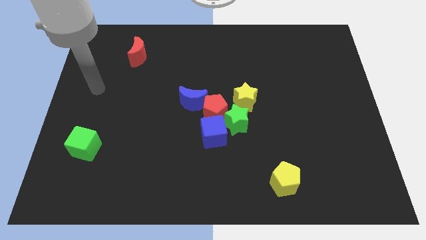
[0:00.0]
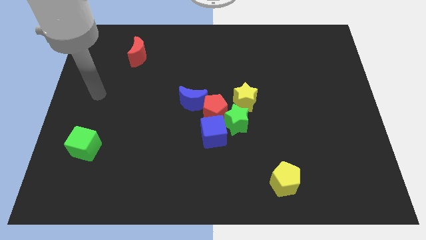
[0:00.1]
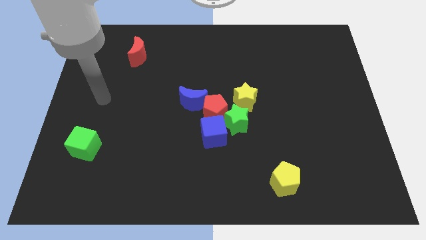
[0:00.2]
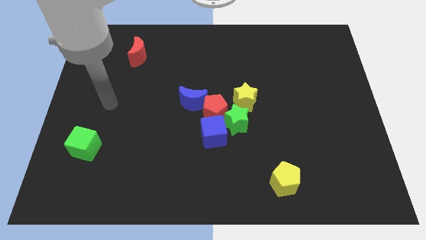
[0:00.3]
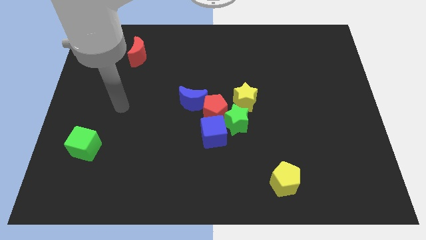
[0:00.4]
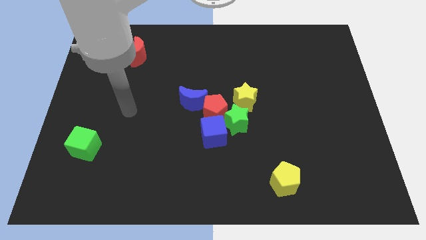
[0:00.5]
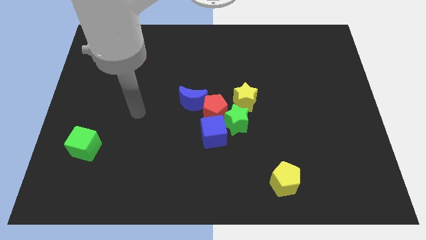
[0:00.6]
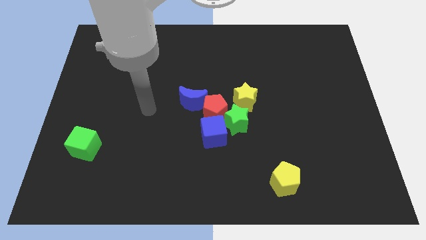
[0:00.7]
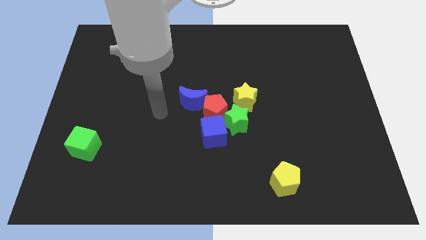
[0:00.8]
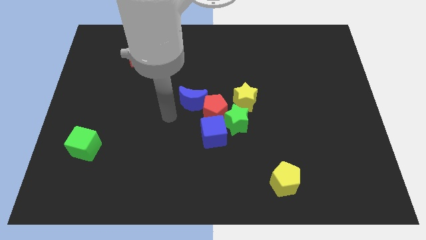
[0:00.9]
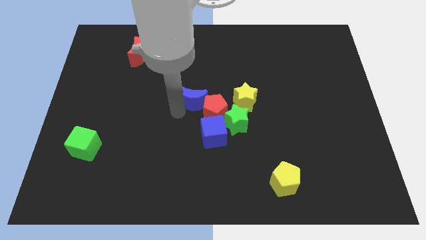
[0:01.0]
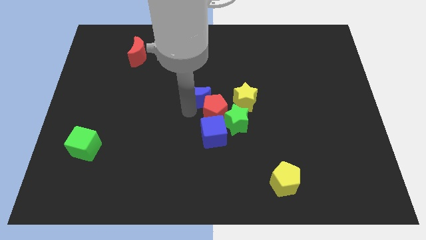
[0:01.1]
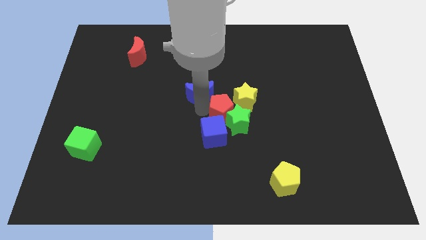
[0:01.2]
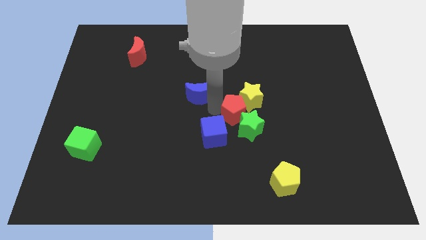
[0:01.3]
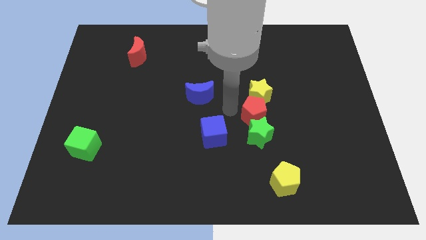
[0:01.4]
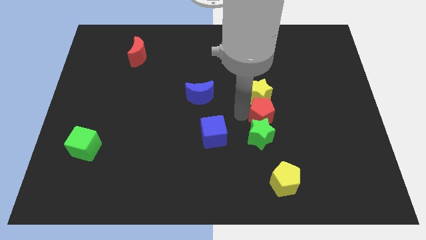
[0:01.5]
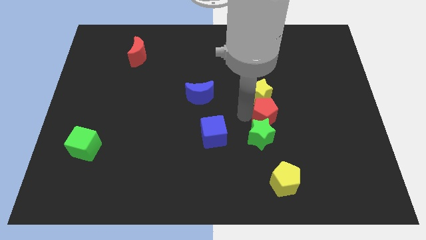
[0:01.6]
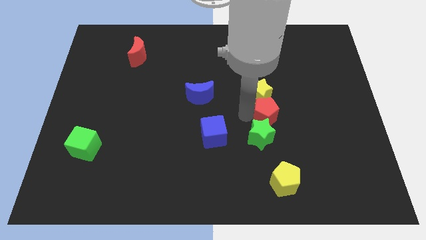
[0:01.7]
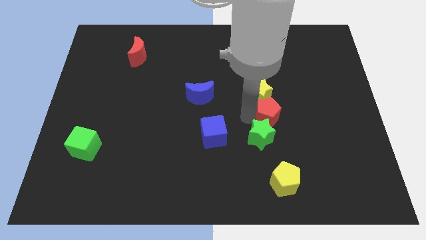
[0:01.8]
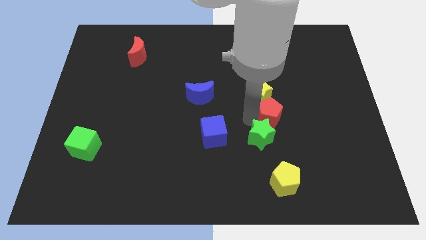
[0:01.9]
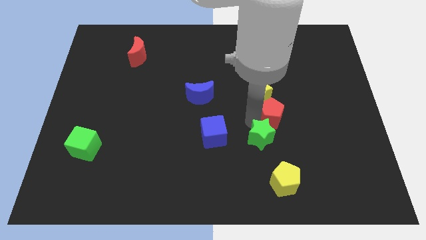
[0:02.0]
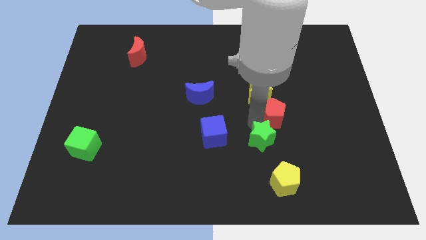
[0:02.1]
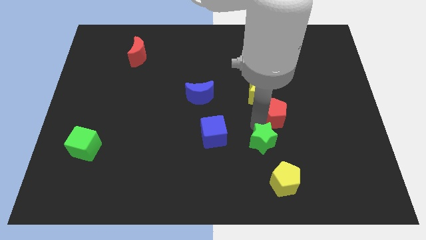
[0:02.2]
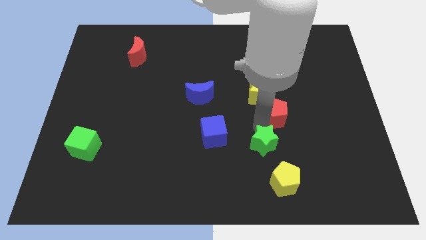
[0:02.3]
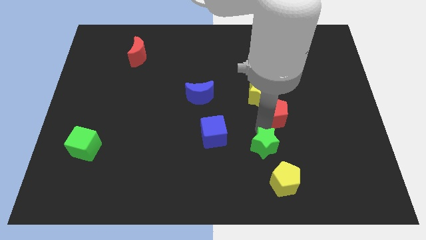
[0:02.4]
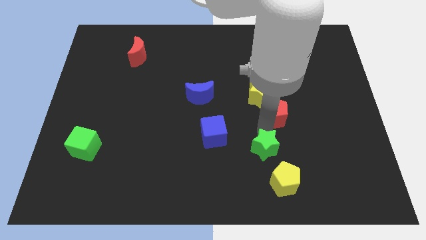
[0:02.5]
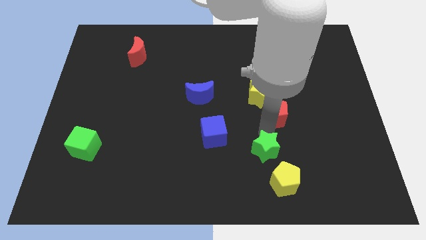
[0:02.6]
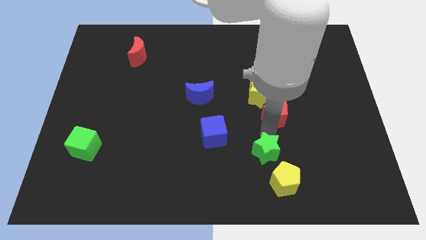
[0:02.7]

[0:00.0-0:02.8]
separate the green star from the red pentagon, blue cube, and yellow star

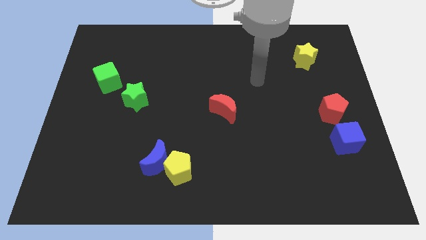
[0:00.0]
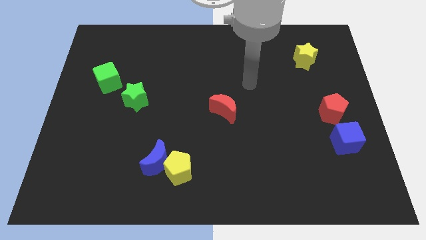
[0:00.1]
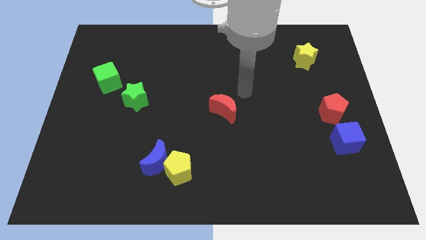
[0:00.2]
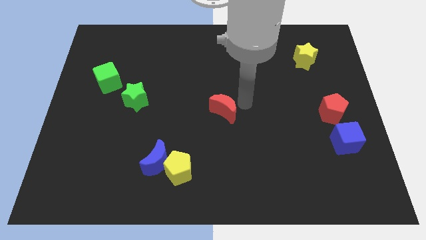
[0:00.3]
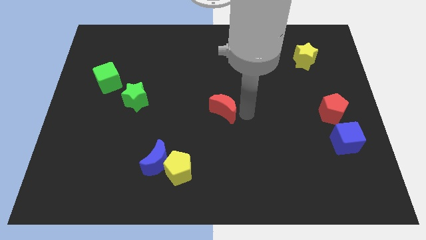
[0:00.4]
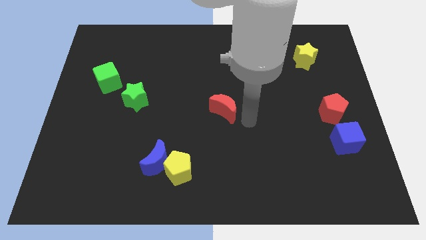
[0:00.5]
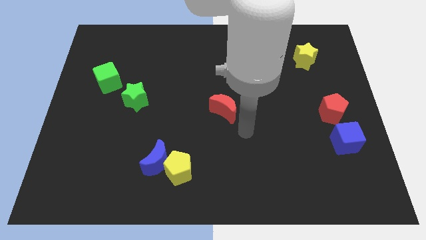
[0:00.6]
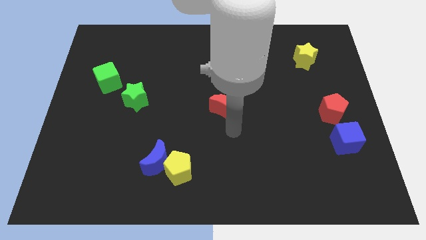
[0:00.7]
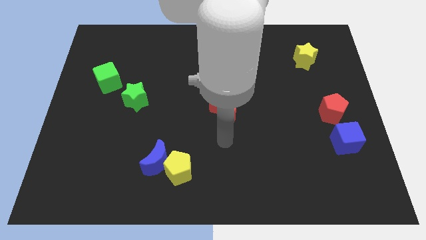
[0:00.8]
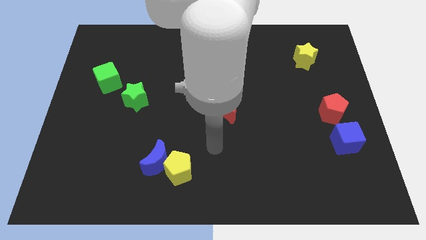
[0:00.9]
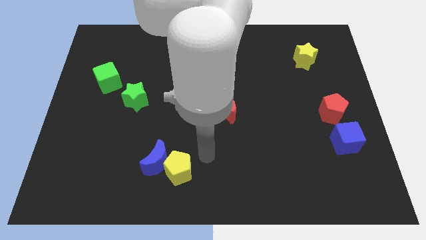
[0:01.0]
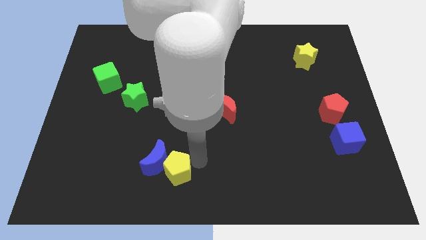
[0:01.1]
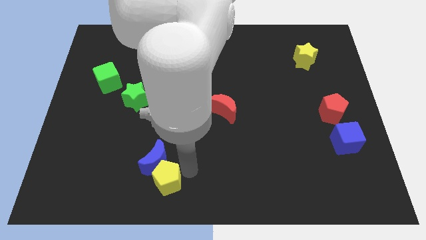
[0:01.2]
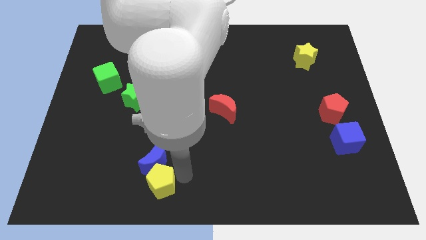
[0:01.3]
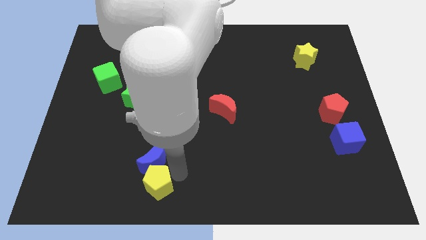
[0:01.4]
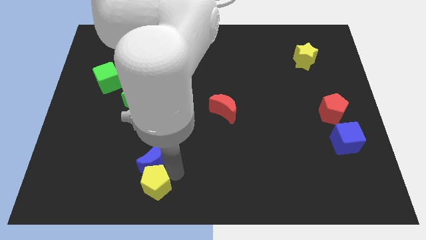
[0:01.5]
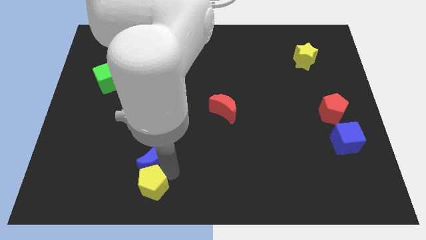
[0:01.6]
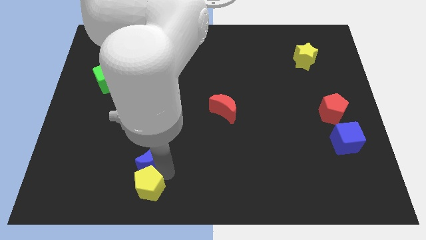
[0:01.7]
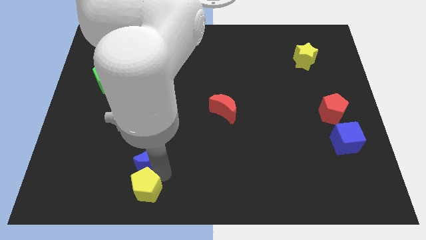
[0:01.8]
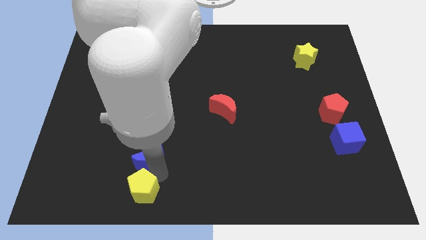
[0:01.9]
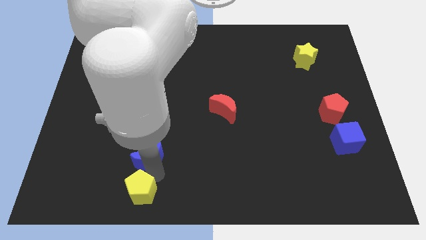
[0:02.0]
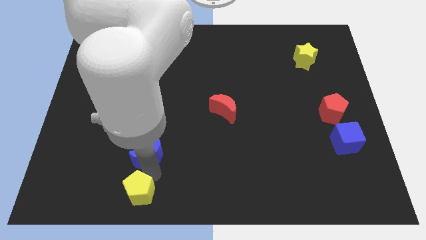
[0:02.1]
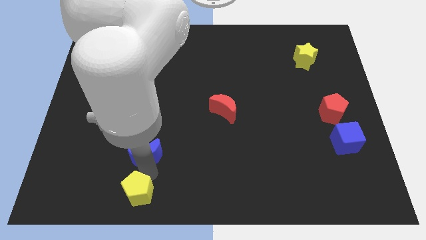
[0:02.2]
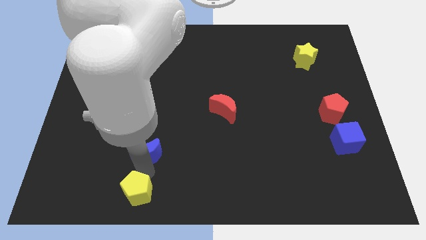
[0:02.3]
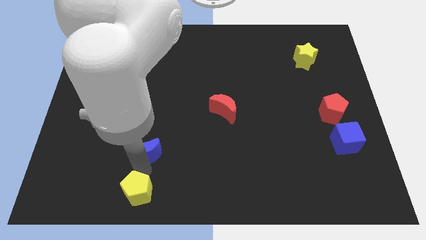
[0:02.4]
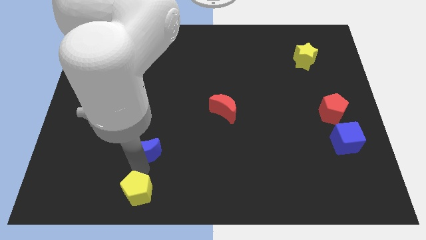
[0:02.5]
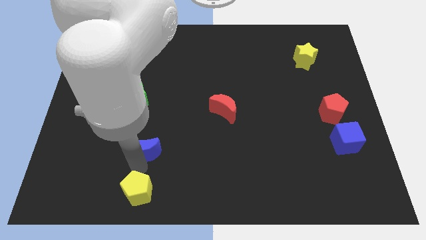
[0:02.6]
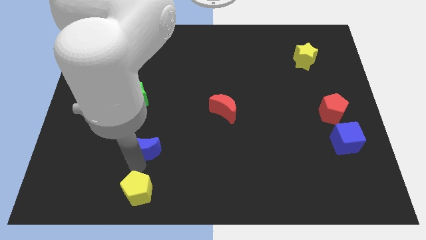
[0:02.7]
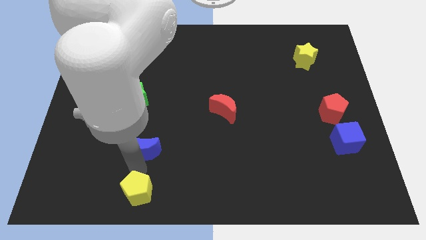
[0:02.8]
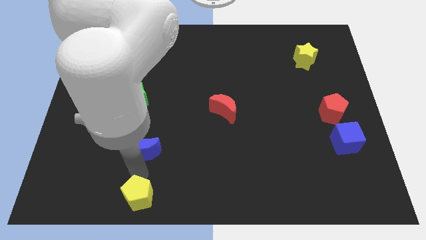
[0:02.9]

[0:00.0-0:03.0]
move the blue moon away from the yellow pentagon

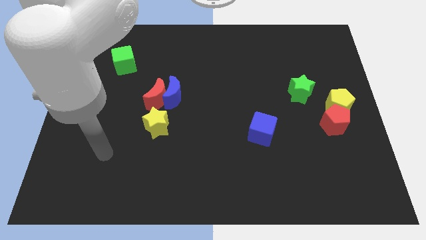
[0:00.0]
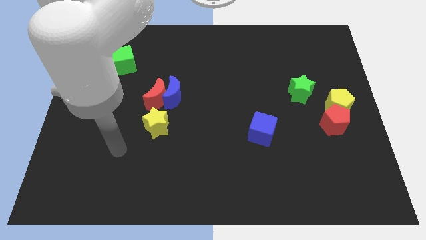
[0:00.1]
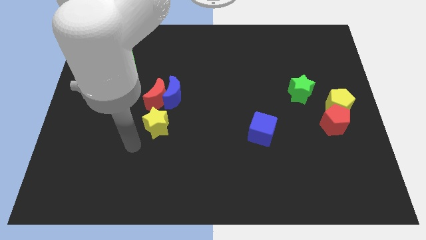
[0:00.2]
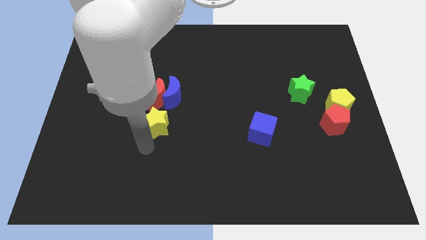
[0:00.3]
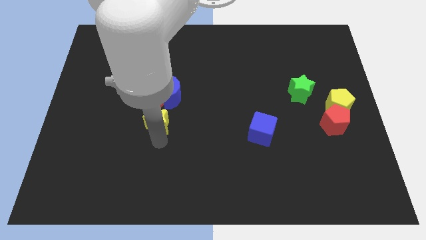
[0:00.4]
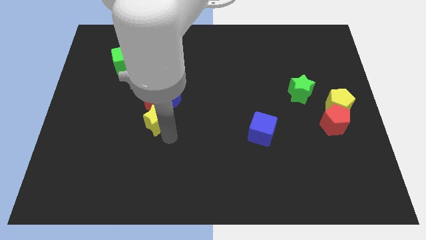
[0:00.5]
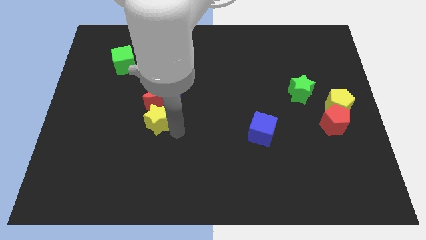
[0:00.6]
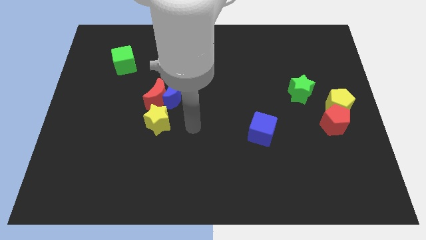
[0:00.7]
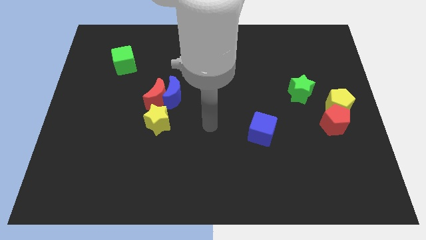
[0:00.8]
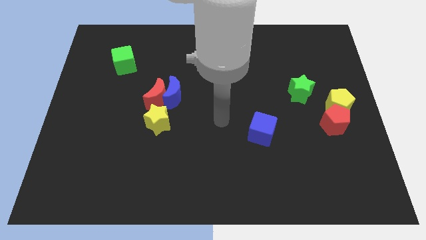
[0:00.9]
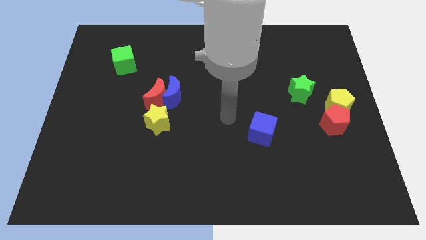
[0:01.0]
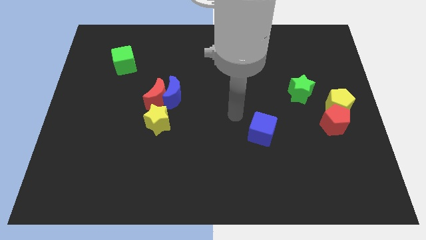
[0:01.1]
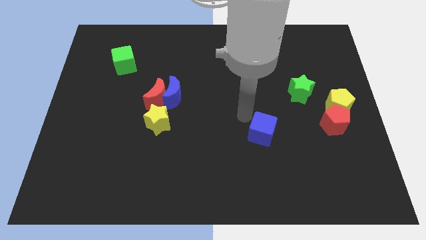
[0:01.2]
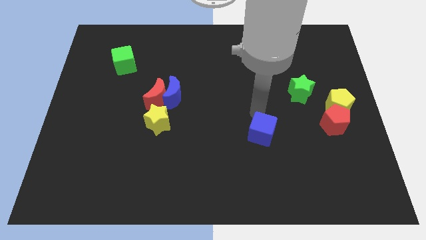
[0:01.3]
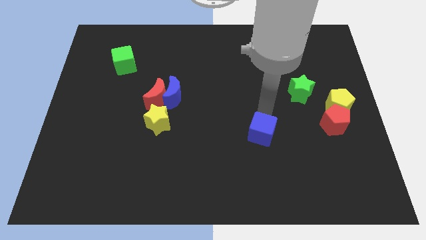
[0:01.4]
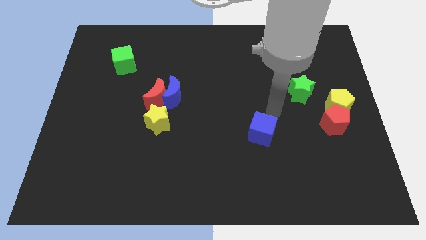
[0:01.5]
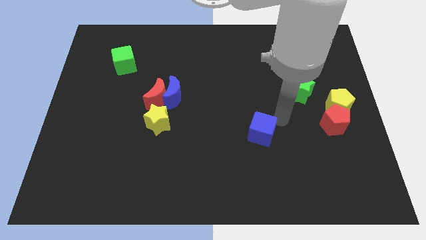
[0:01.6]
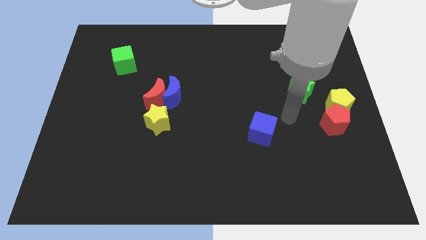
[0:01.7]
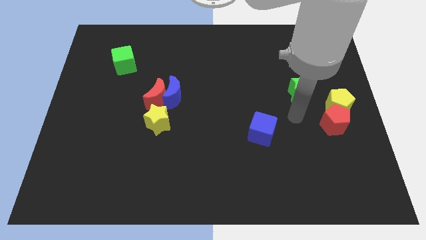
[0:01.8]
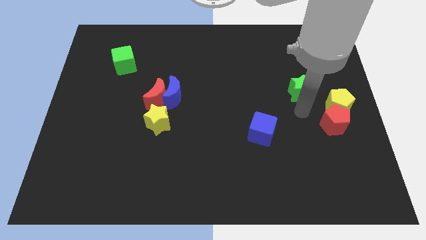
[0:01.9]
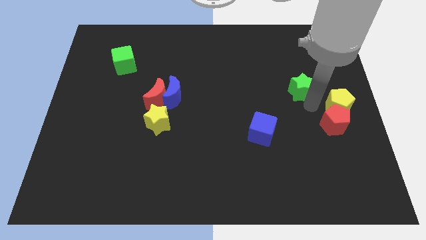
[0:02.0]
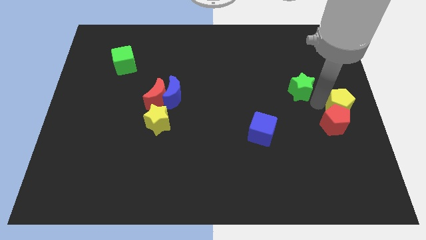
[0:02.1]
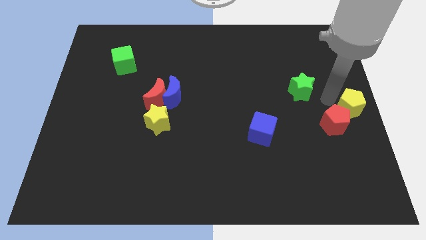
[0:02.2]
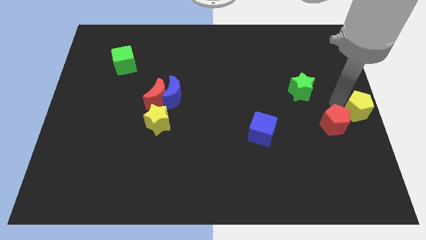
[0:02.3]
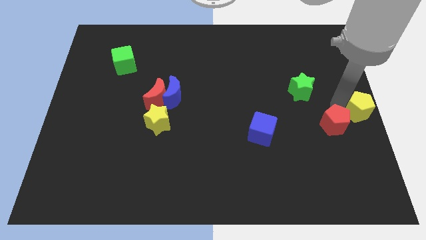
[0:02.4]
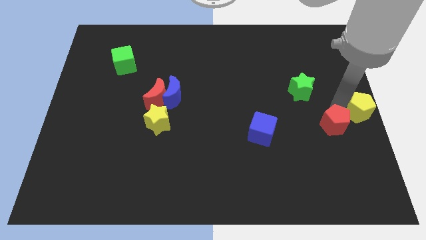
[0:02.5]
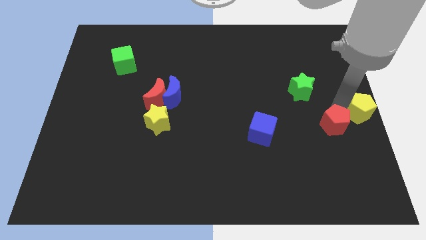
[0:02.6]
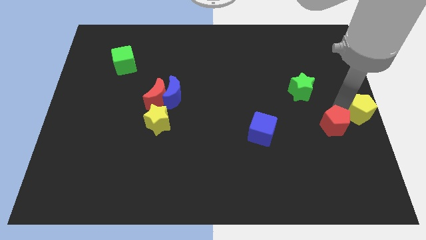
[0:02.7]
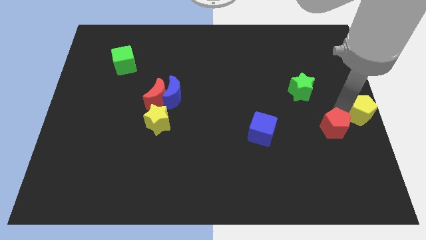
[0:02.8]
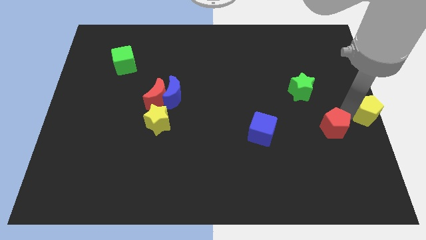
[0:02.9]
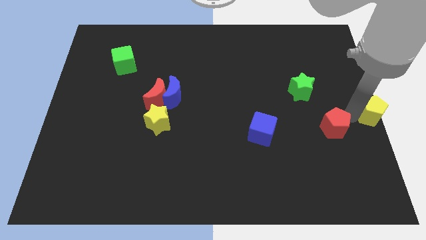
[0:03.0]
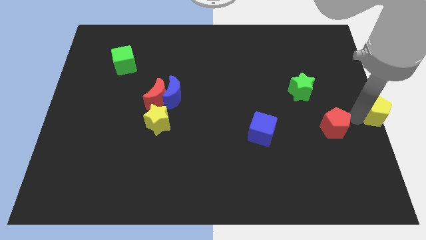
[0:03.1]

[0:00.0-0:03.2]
pull the red pentagon apart from the yellow pentagon

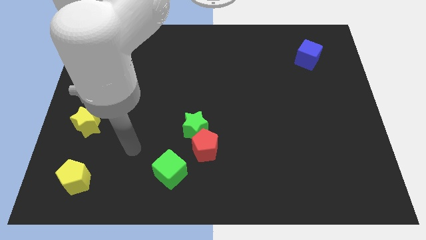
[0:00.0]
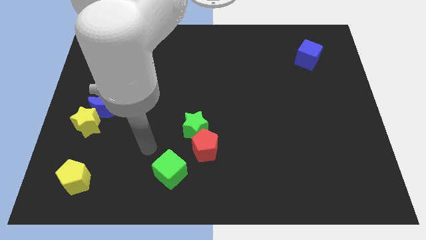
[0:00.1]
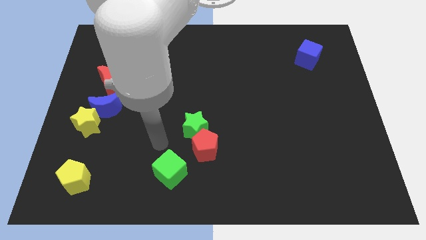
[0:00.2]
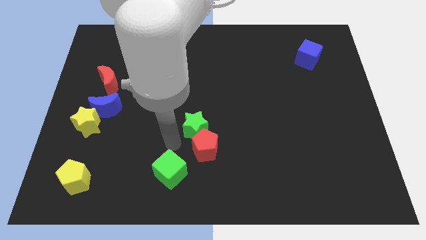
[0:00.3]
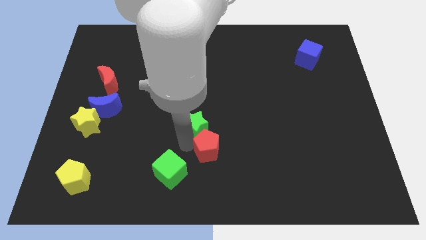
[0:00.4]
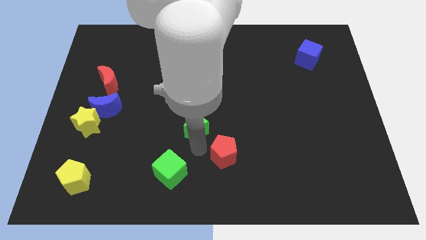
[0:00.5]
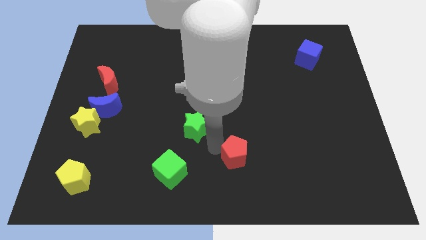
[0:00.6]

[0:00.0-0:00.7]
move the green star away from the red pentagon
